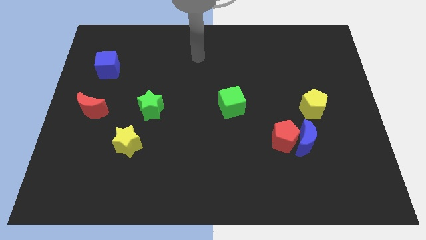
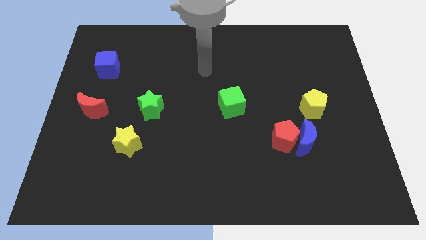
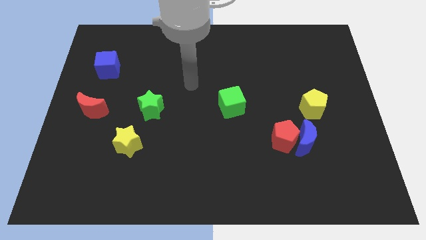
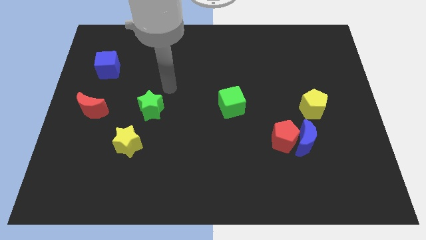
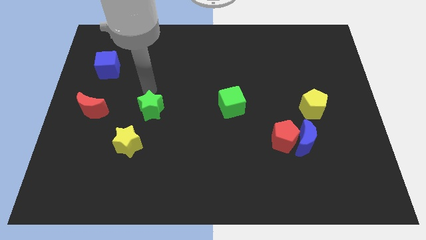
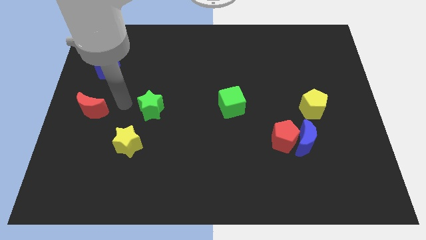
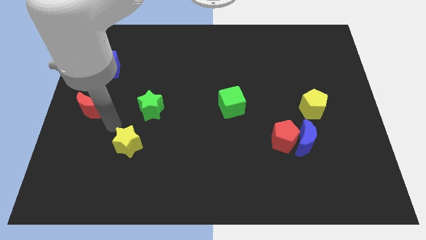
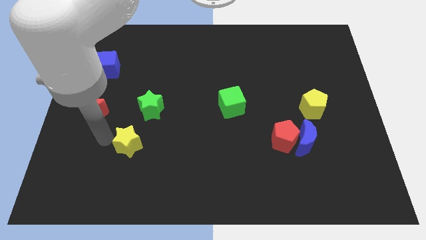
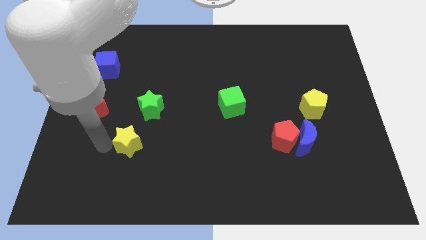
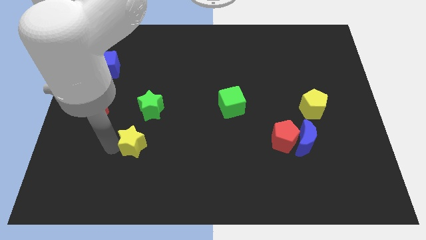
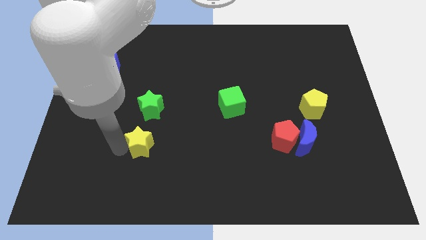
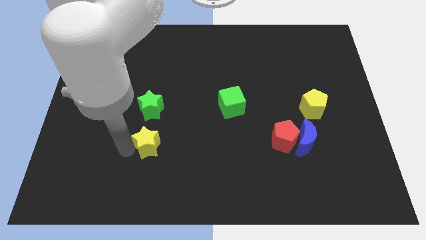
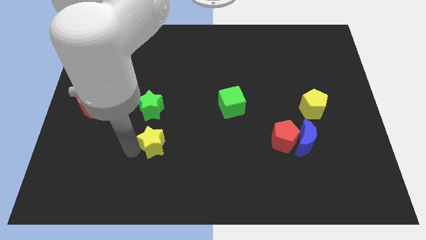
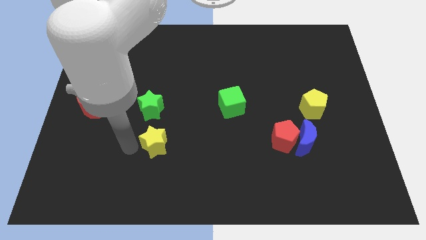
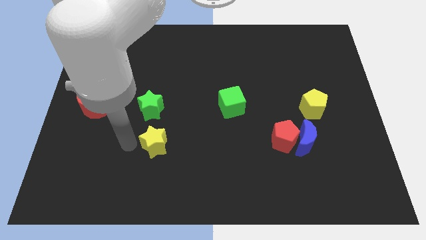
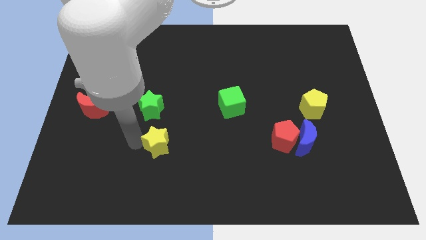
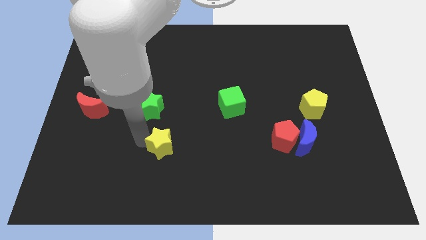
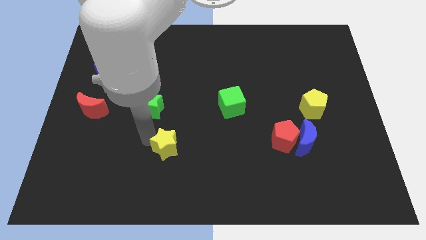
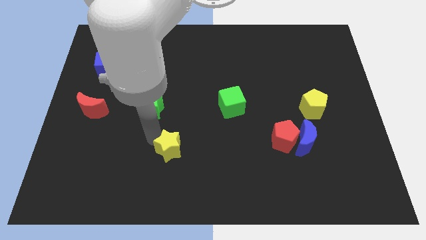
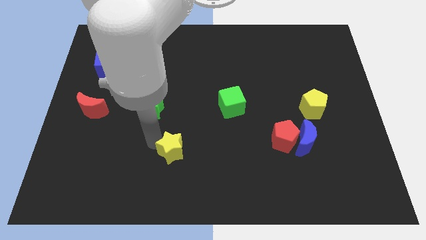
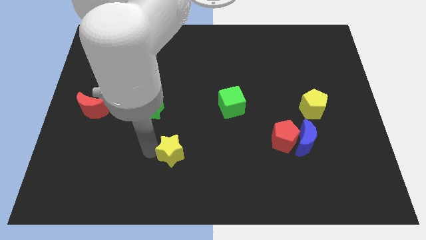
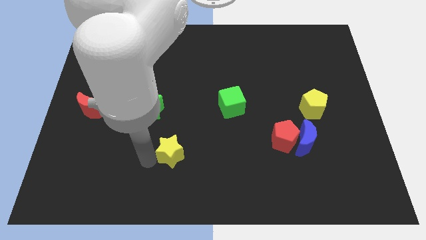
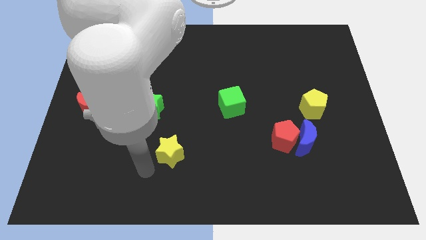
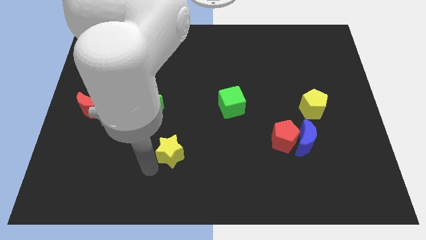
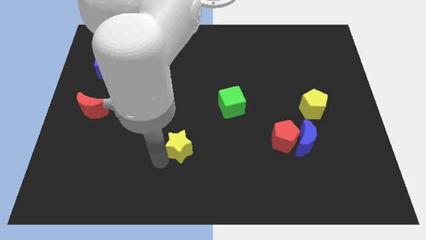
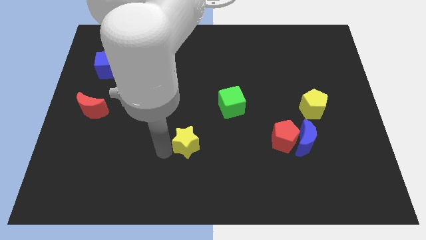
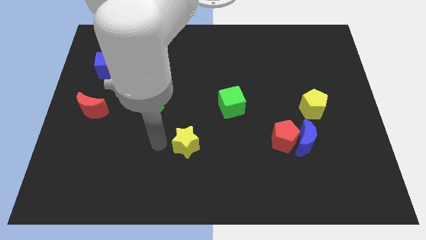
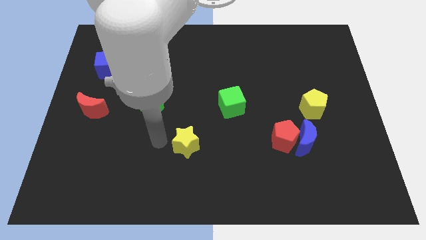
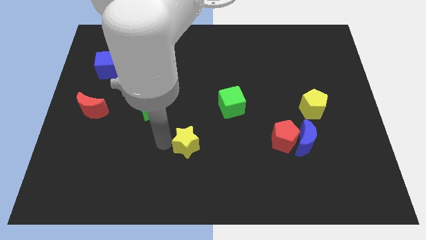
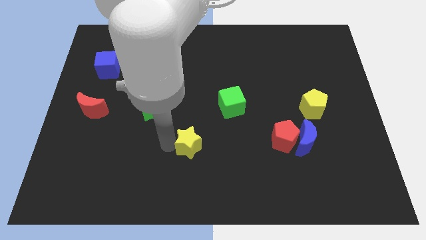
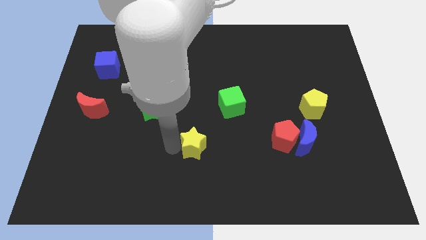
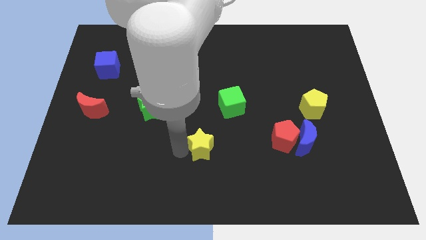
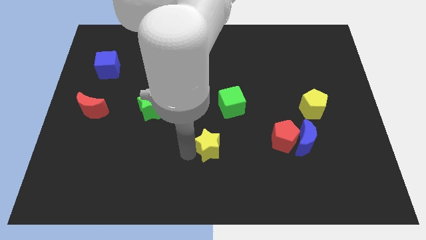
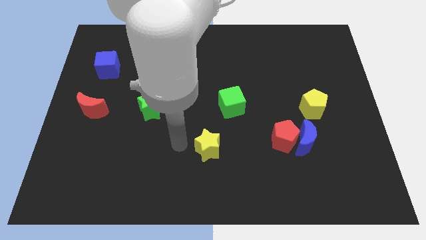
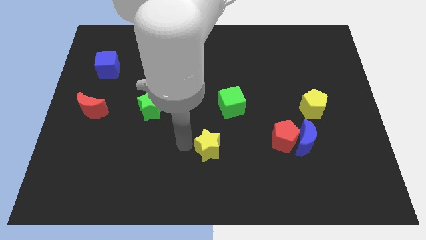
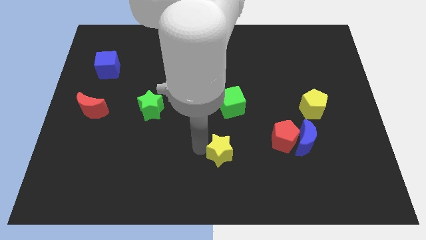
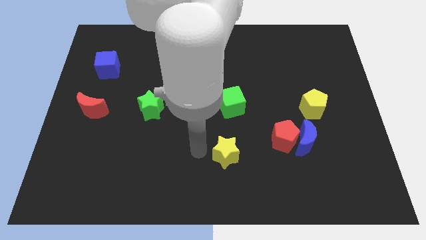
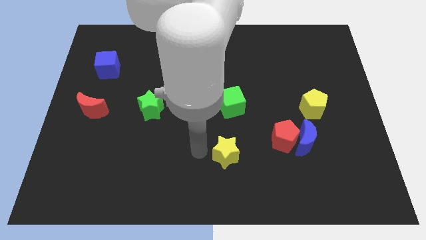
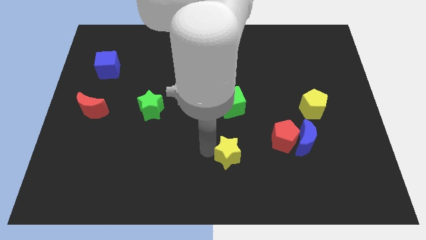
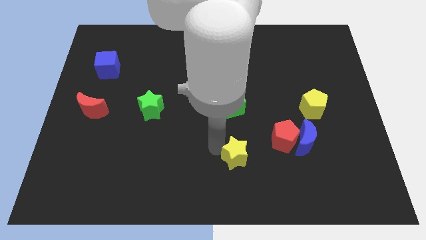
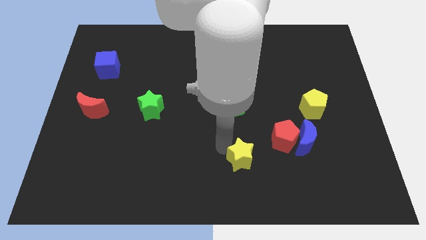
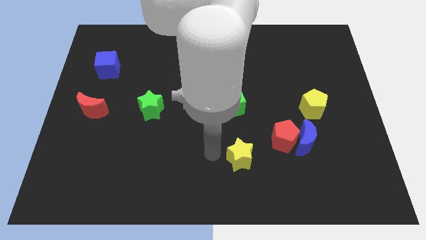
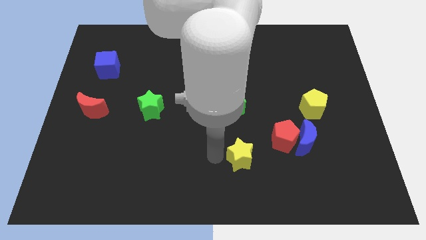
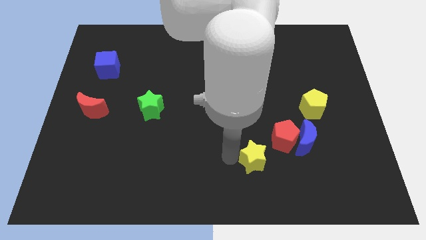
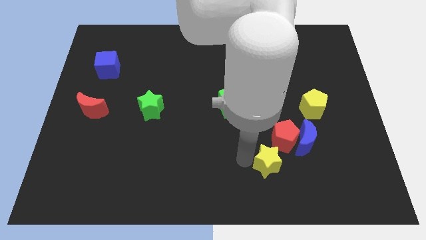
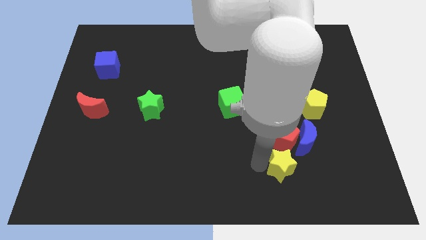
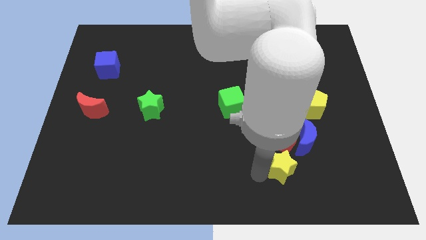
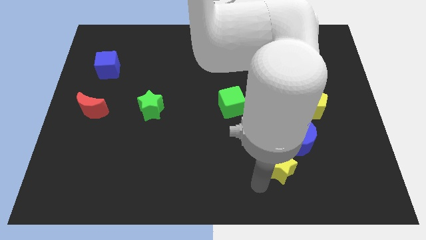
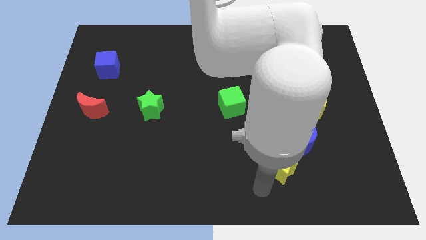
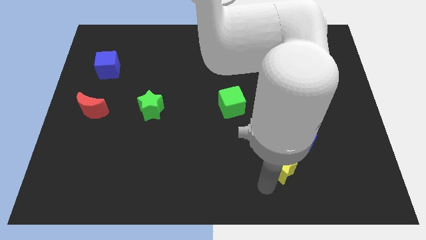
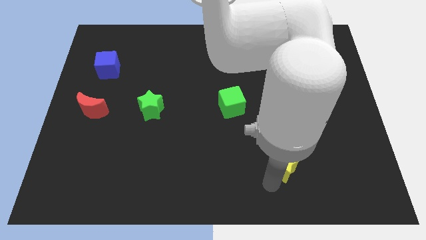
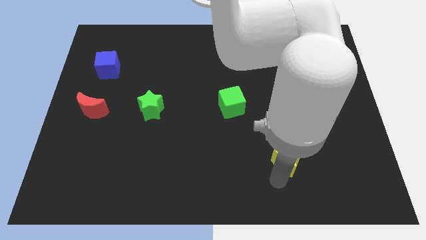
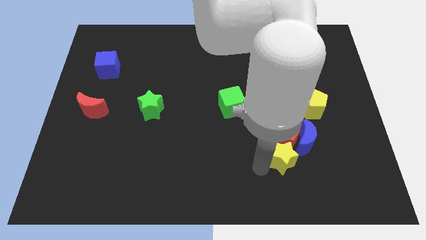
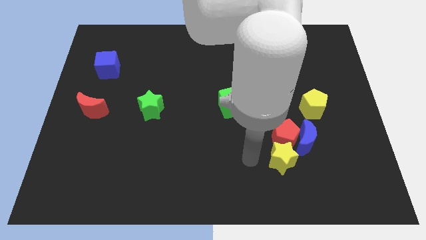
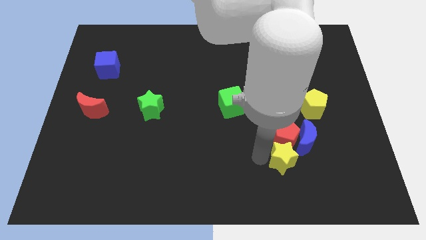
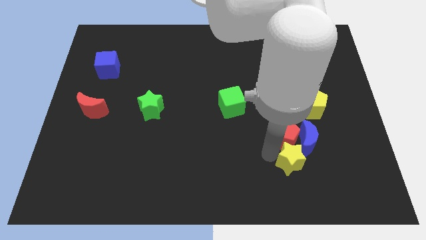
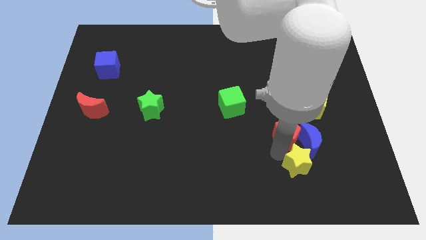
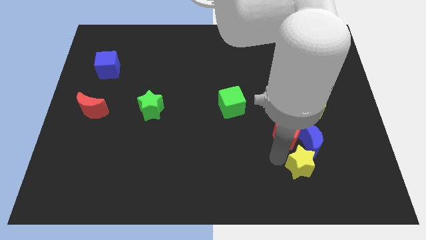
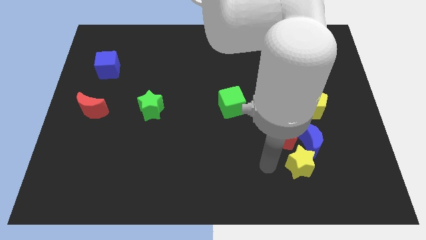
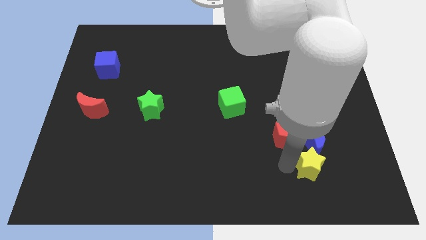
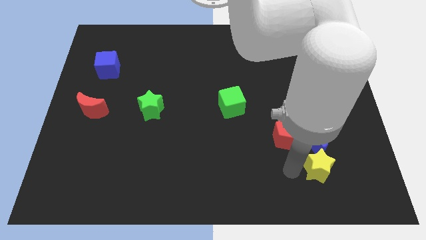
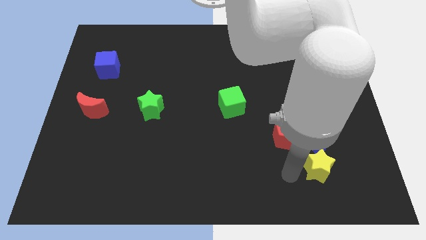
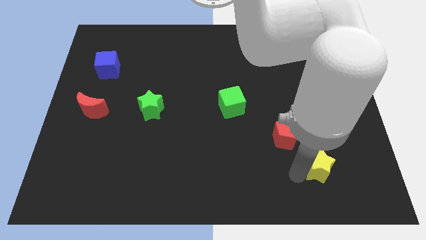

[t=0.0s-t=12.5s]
put the yellow star to the bottom right side of the blue moon

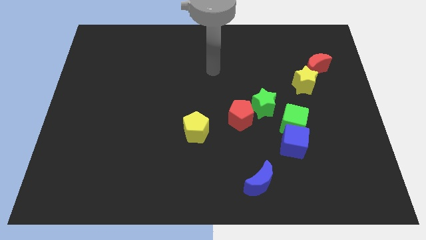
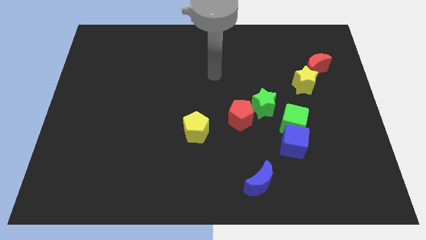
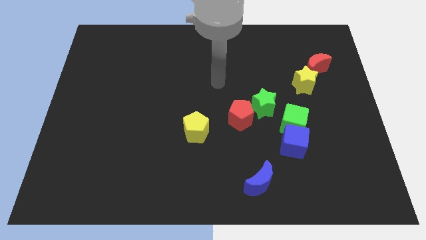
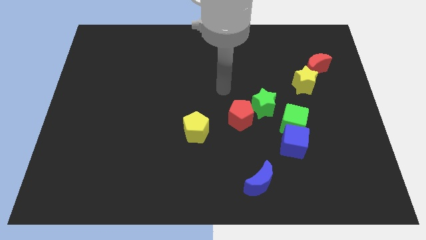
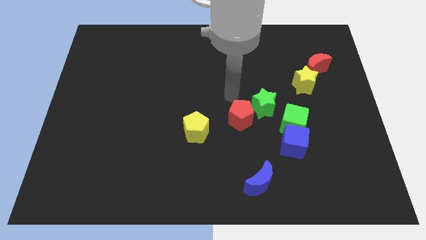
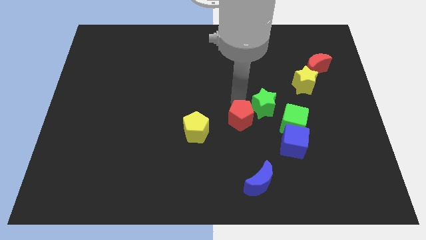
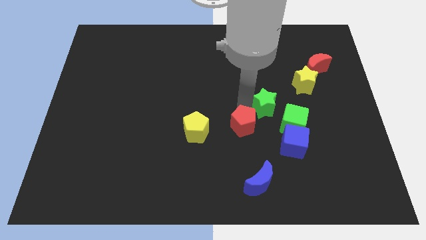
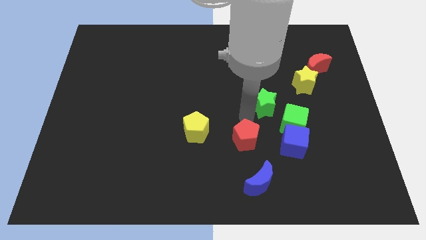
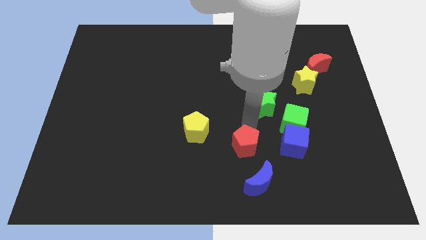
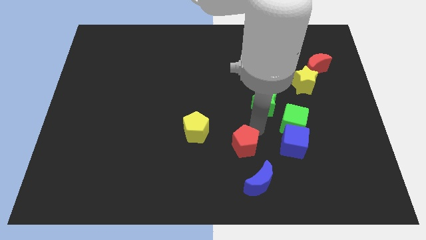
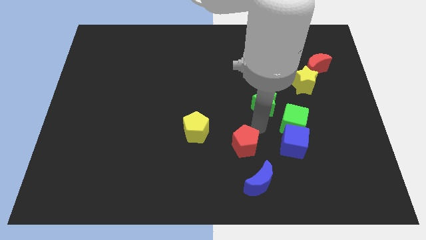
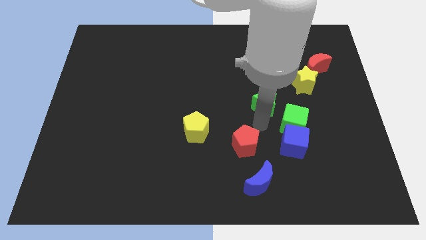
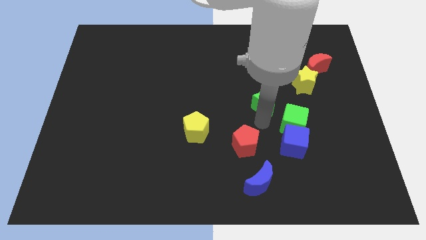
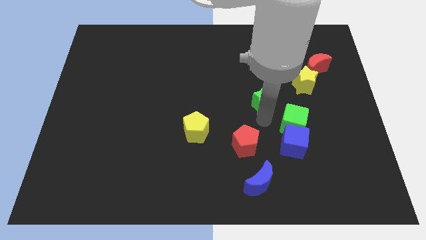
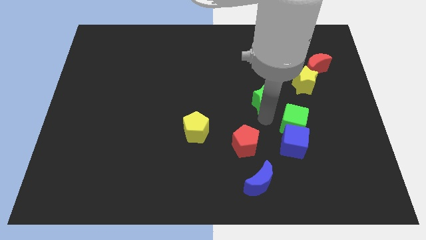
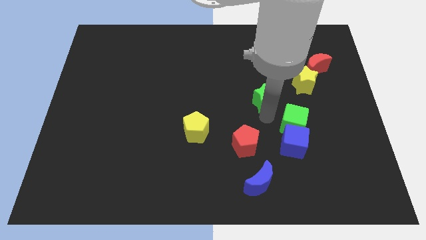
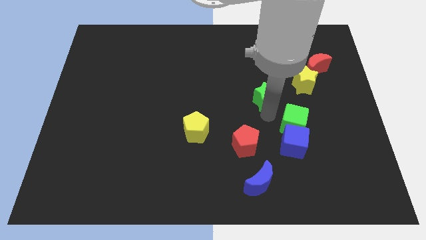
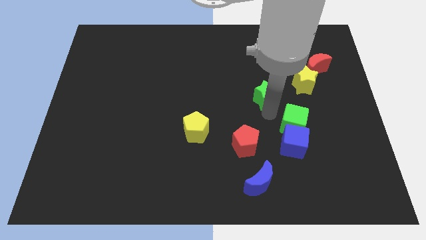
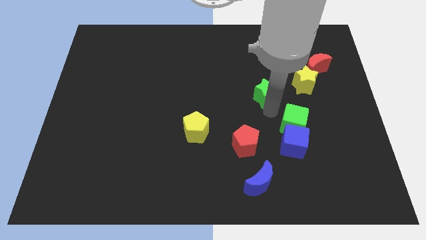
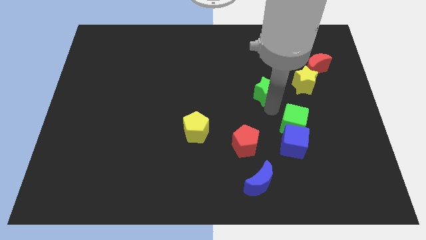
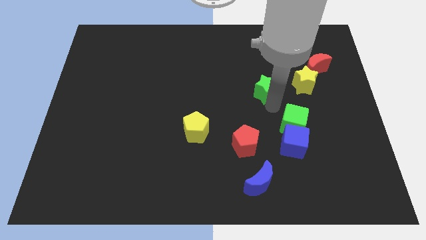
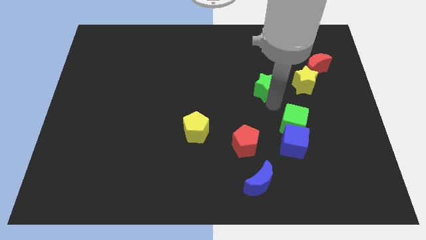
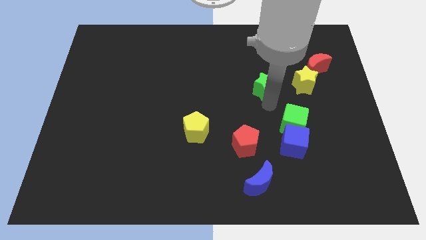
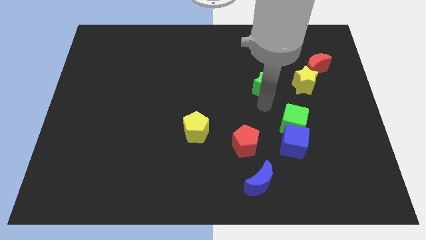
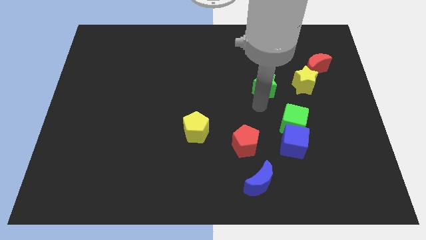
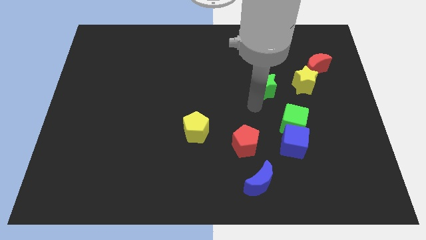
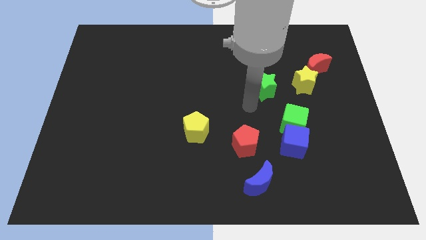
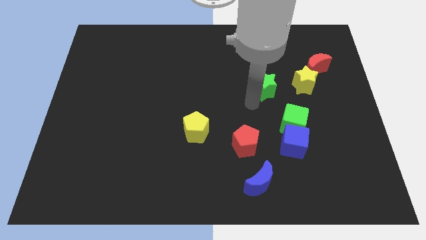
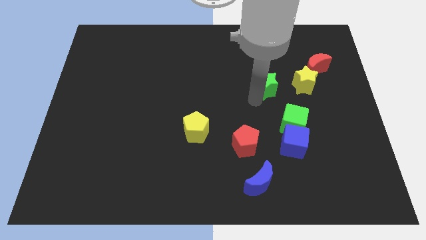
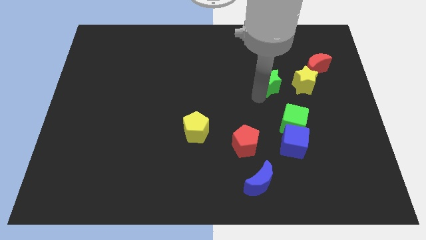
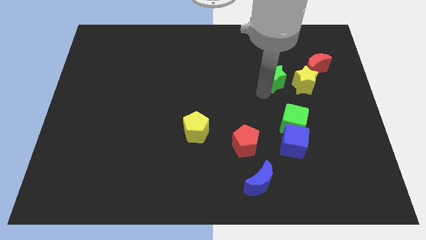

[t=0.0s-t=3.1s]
put the green star diagonally up and to the left of the yellow star
